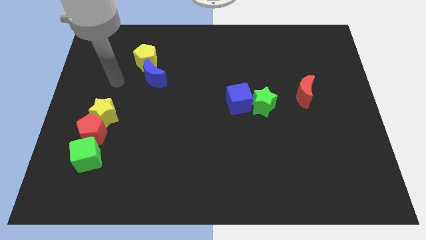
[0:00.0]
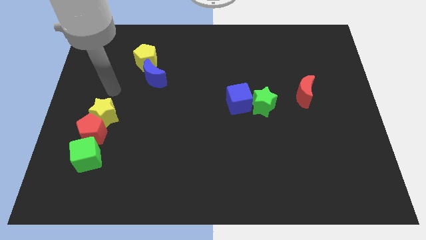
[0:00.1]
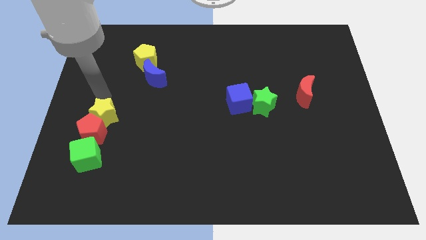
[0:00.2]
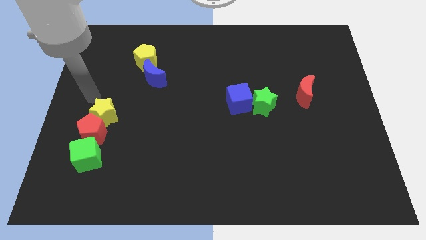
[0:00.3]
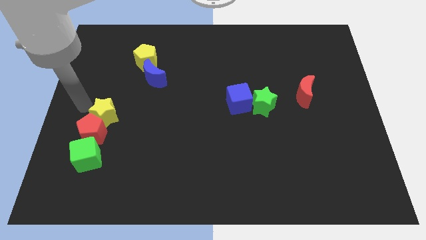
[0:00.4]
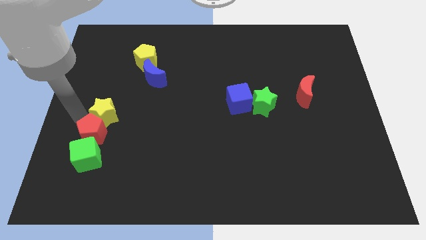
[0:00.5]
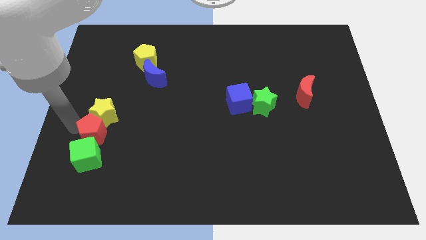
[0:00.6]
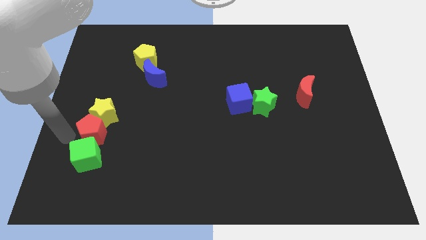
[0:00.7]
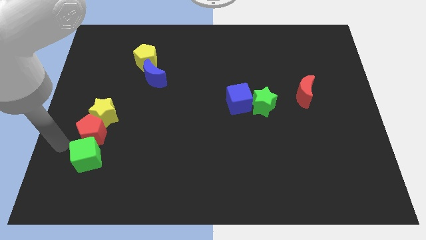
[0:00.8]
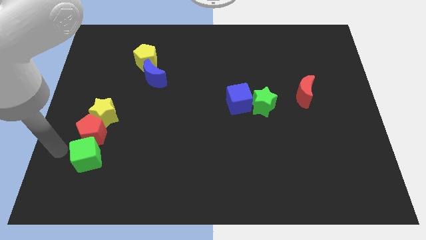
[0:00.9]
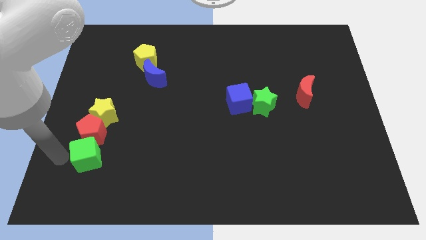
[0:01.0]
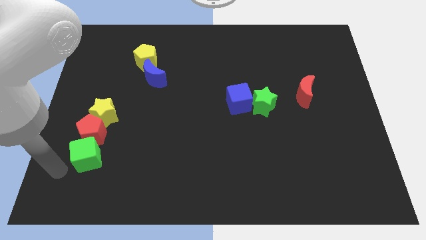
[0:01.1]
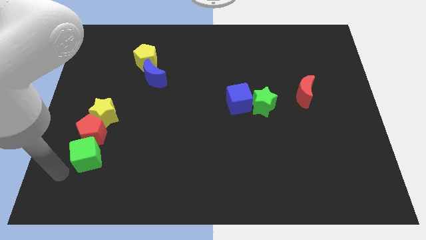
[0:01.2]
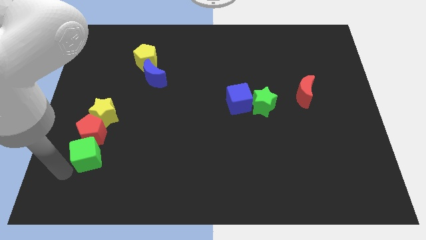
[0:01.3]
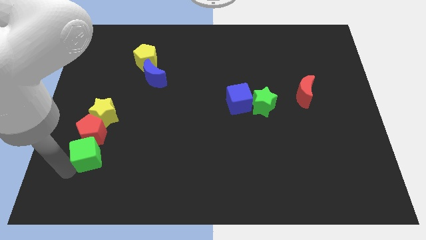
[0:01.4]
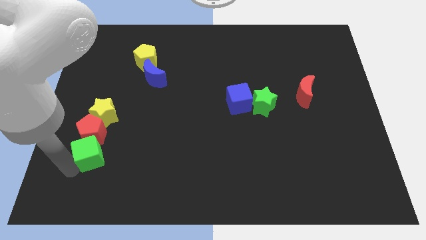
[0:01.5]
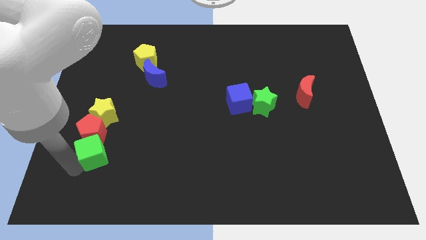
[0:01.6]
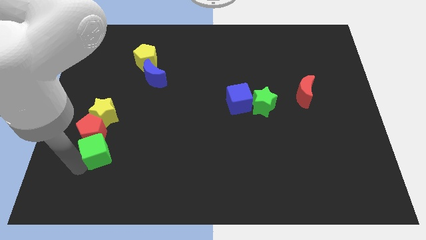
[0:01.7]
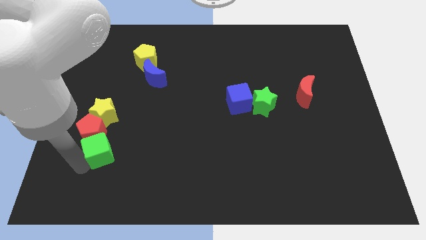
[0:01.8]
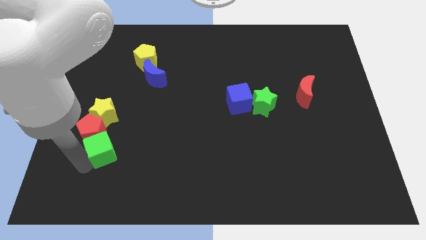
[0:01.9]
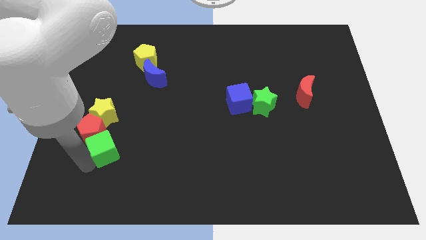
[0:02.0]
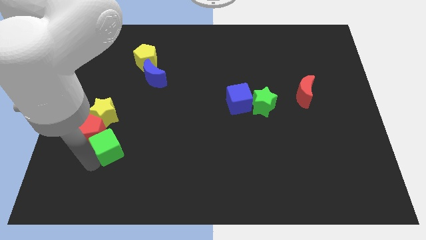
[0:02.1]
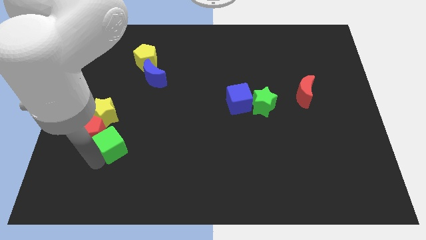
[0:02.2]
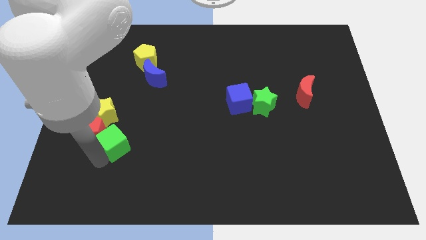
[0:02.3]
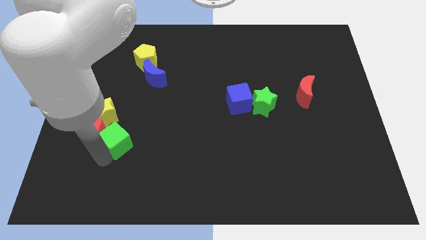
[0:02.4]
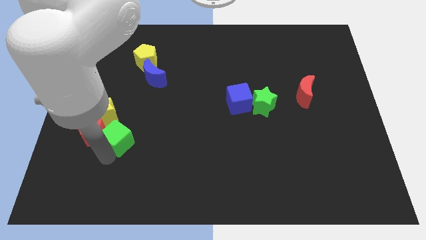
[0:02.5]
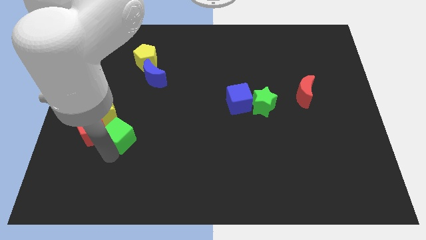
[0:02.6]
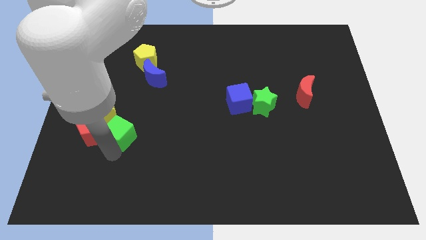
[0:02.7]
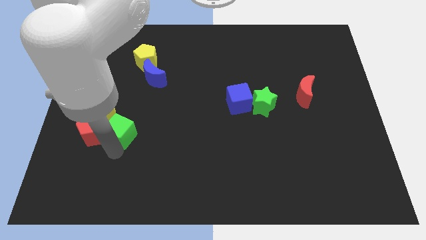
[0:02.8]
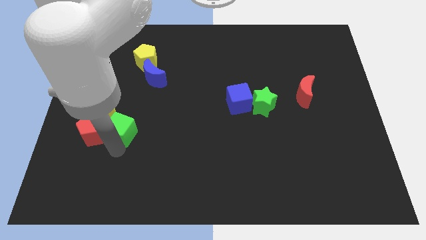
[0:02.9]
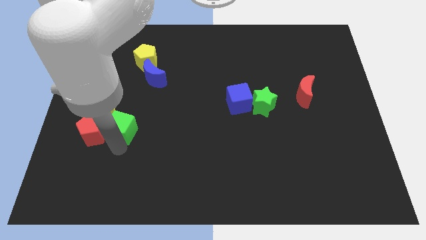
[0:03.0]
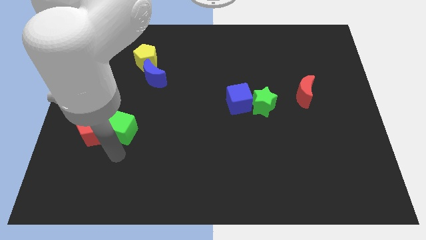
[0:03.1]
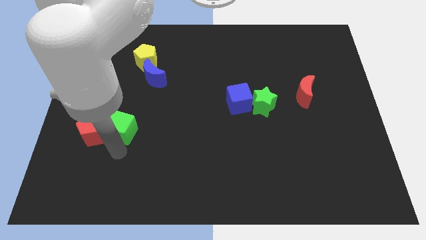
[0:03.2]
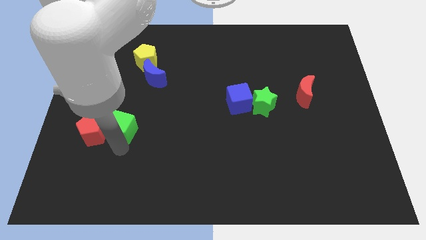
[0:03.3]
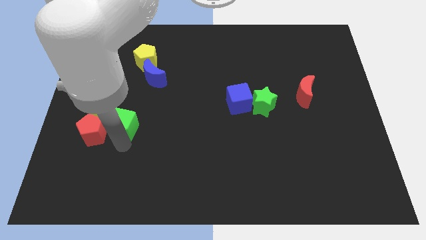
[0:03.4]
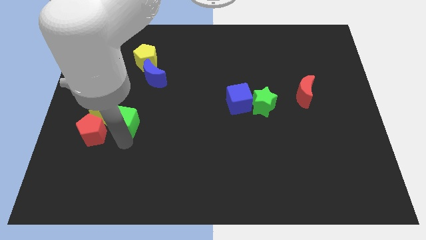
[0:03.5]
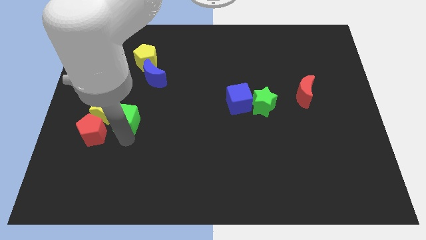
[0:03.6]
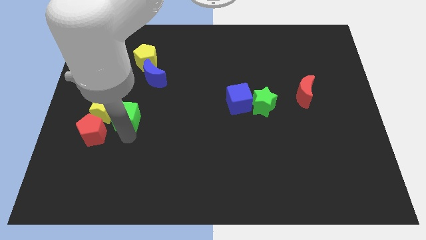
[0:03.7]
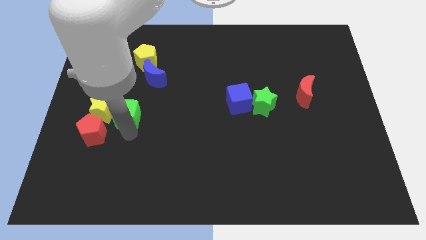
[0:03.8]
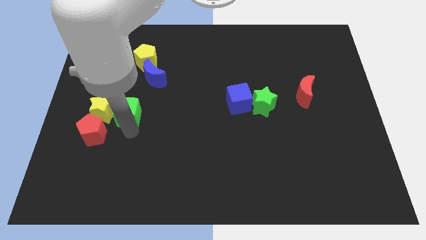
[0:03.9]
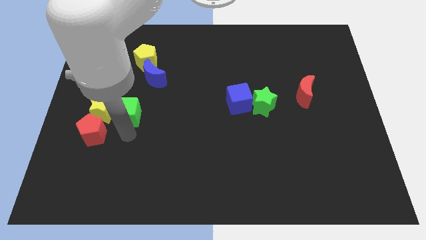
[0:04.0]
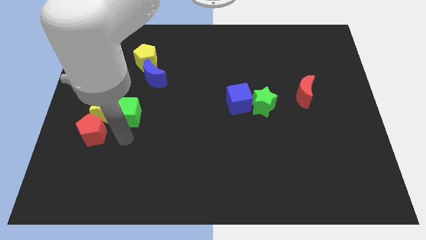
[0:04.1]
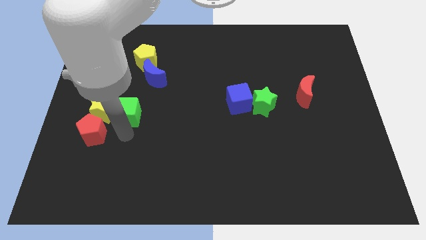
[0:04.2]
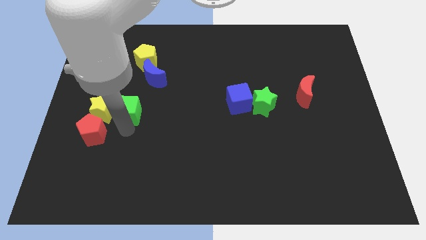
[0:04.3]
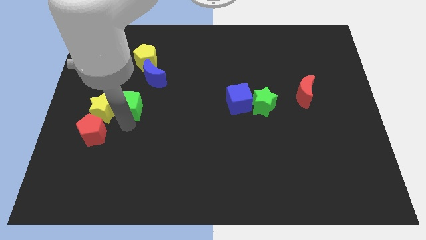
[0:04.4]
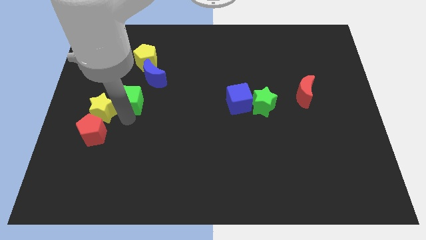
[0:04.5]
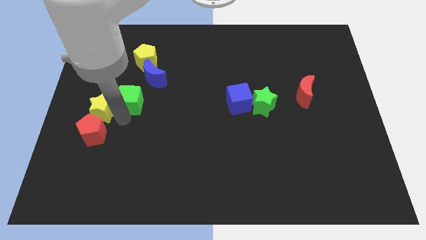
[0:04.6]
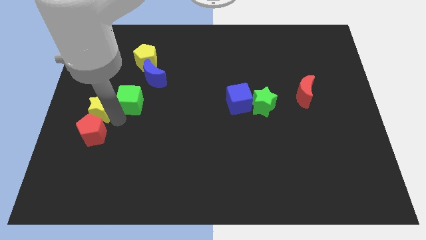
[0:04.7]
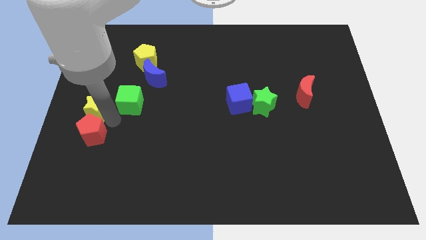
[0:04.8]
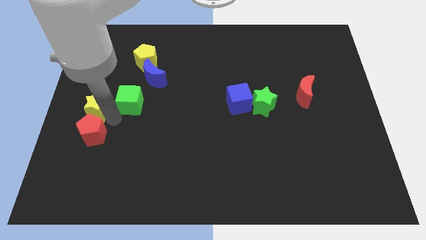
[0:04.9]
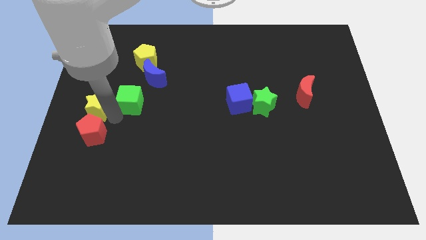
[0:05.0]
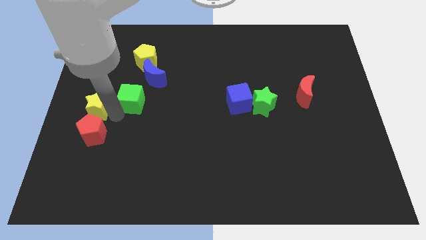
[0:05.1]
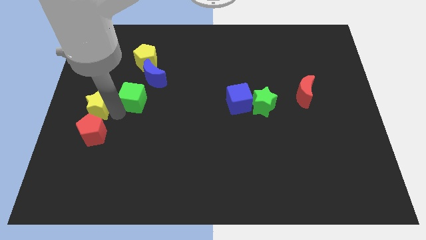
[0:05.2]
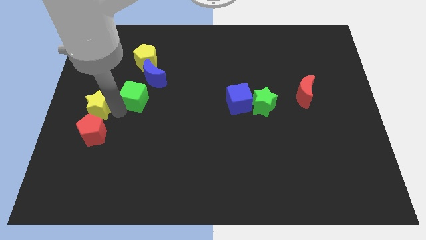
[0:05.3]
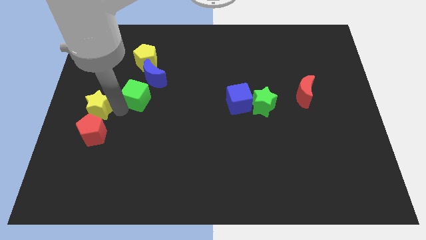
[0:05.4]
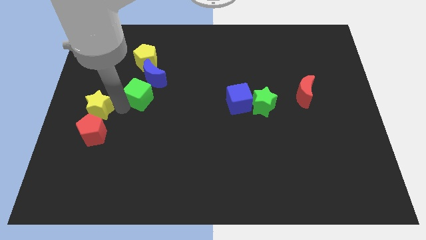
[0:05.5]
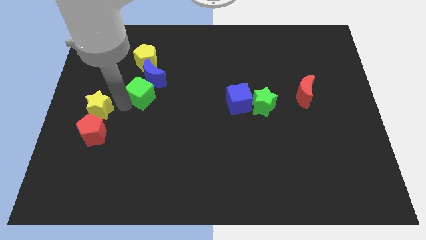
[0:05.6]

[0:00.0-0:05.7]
push the green cube close to the blue moon
